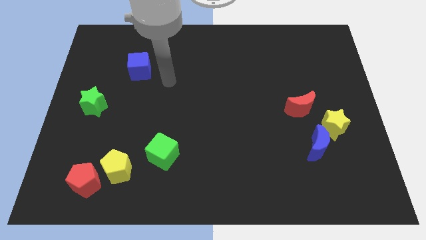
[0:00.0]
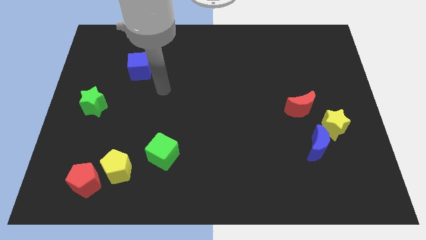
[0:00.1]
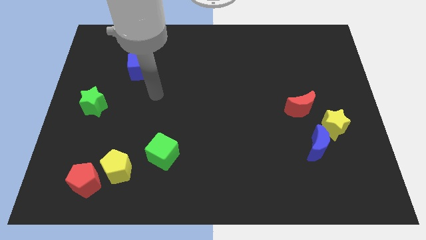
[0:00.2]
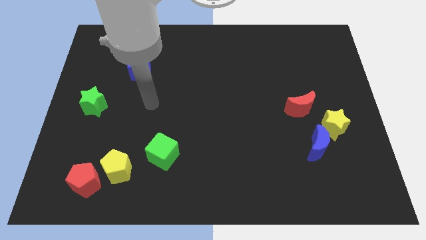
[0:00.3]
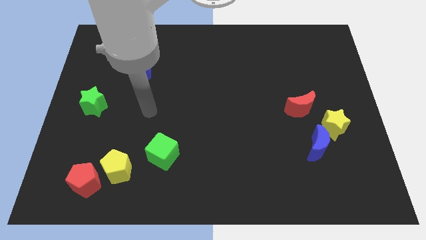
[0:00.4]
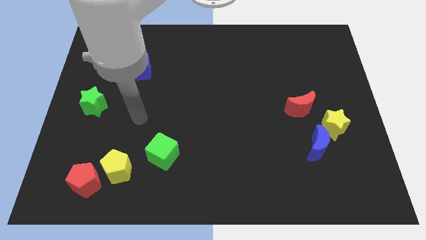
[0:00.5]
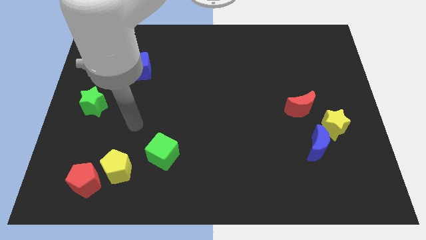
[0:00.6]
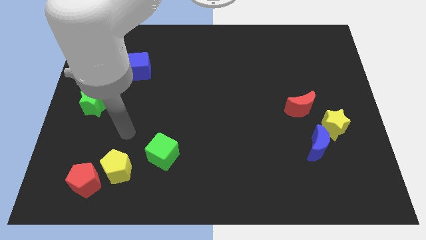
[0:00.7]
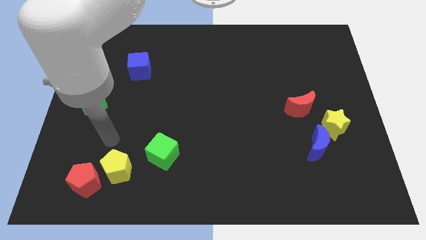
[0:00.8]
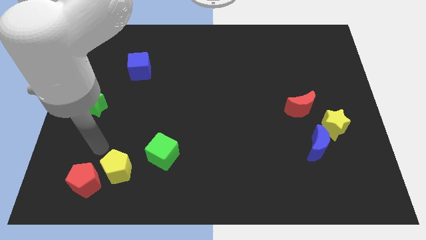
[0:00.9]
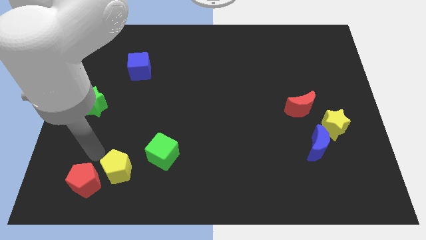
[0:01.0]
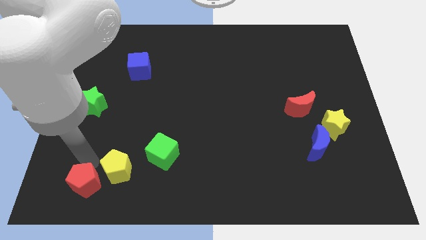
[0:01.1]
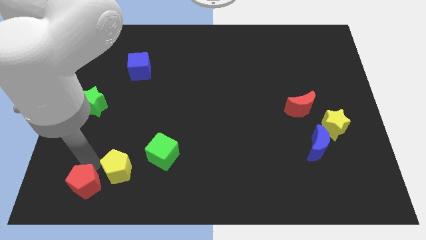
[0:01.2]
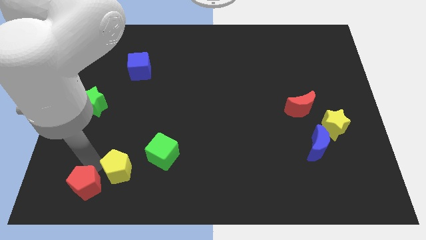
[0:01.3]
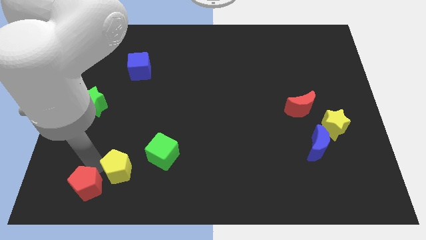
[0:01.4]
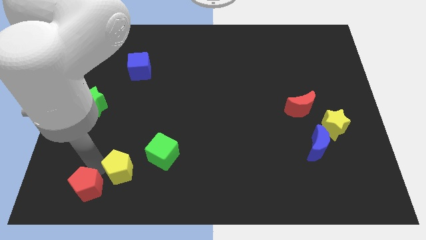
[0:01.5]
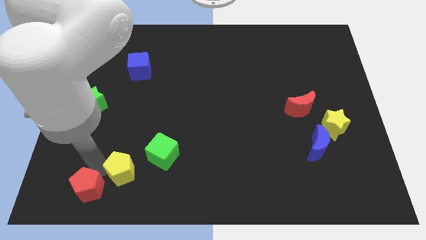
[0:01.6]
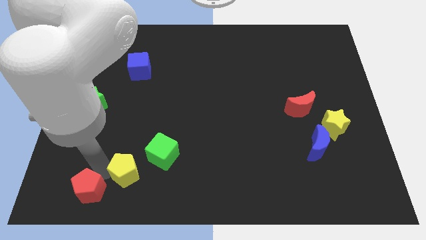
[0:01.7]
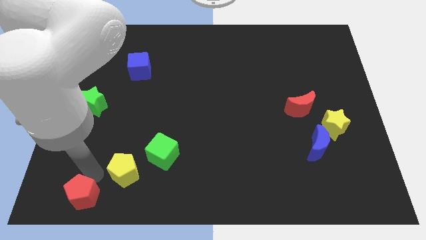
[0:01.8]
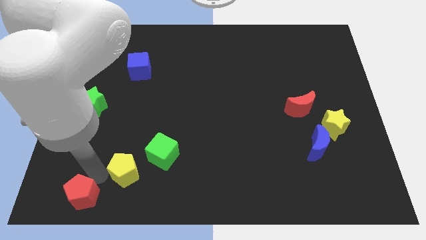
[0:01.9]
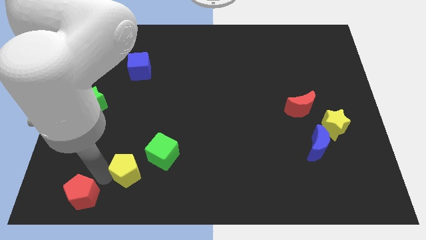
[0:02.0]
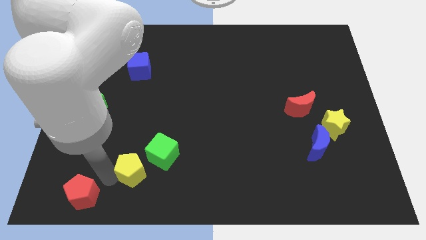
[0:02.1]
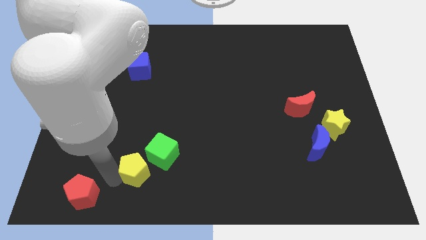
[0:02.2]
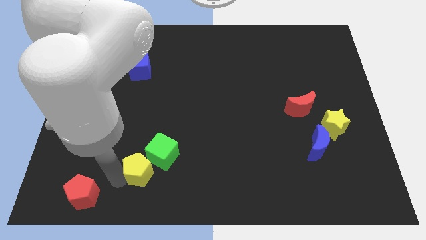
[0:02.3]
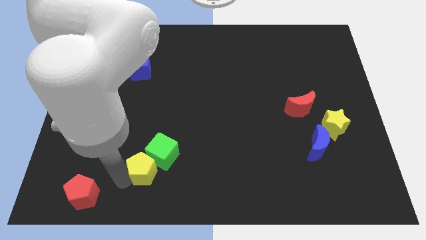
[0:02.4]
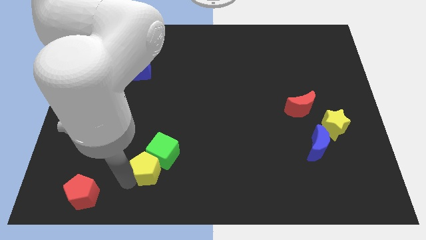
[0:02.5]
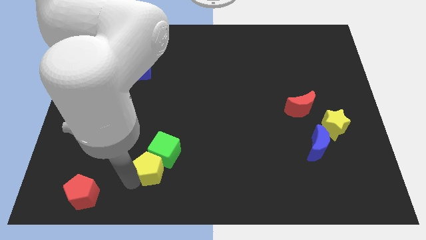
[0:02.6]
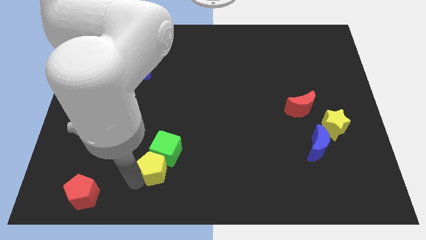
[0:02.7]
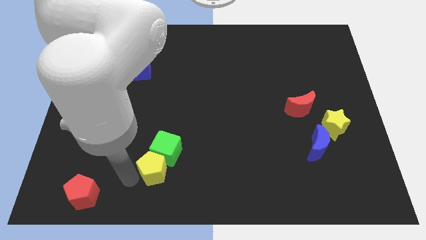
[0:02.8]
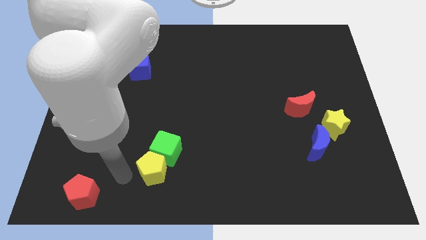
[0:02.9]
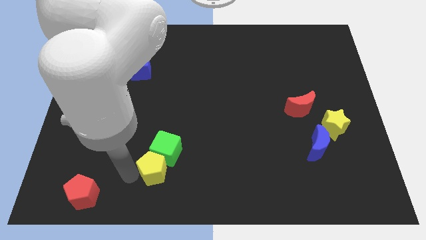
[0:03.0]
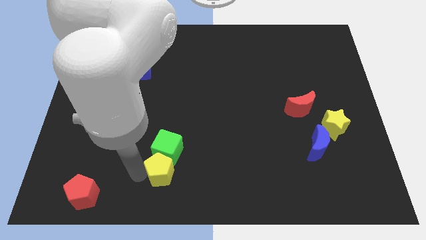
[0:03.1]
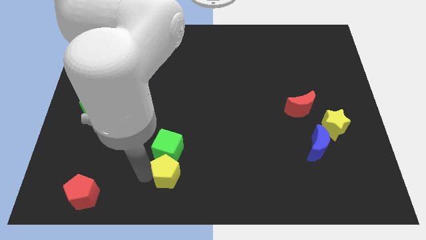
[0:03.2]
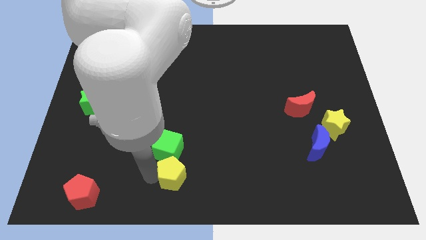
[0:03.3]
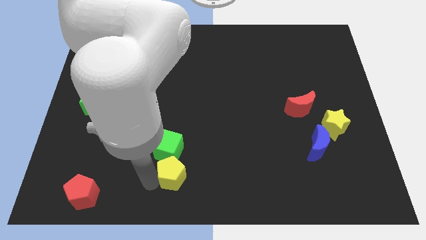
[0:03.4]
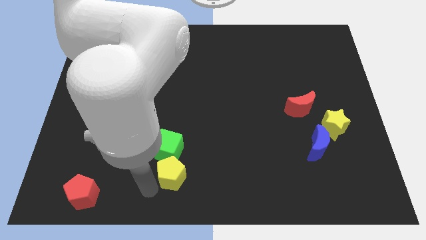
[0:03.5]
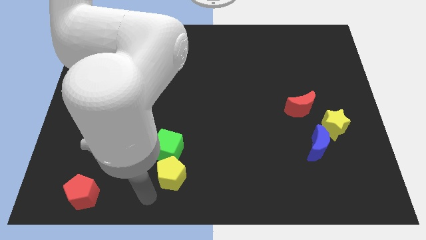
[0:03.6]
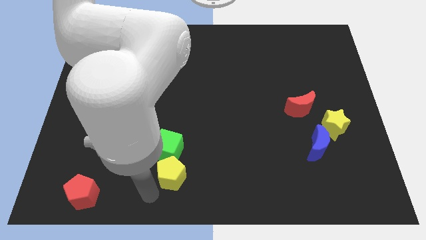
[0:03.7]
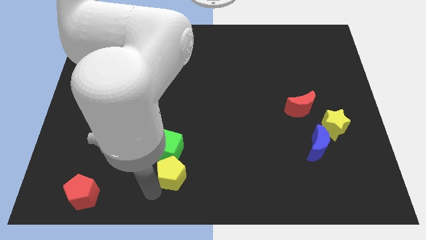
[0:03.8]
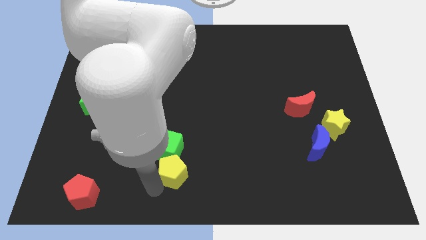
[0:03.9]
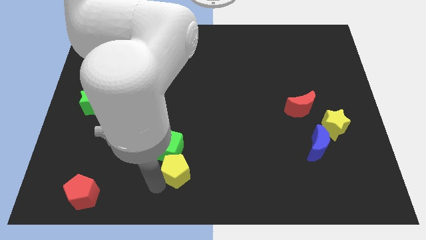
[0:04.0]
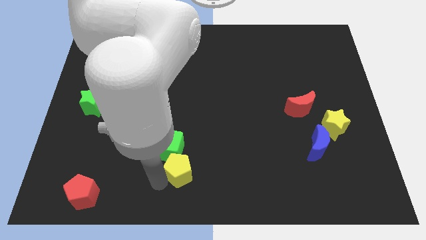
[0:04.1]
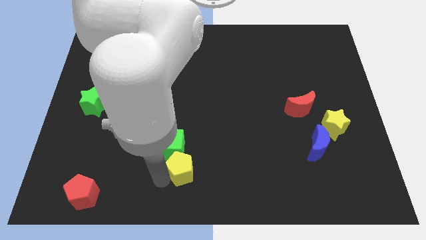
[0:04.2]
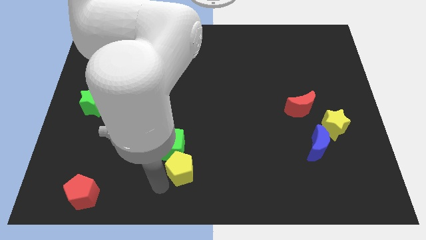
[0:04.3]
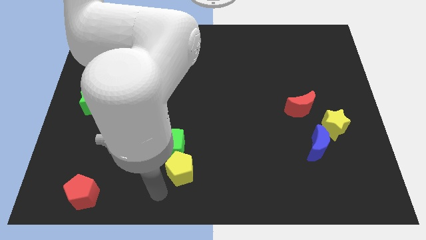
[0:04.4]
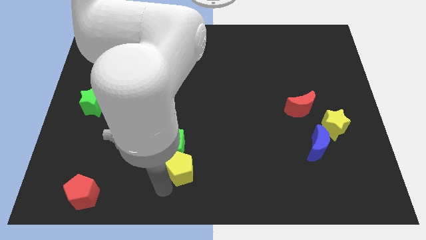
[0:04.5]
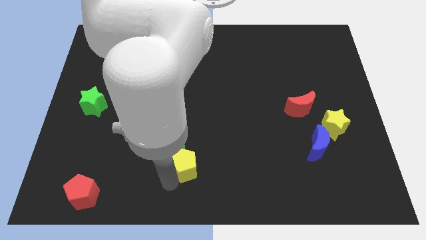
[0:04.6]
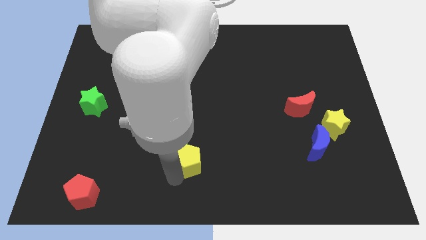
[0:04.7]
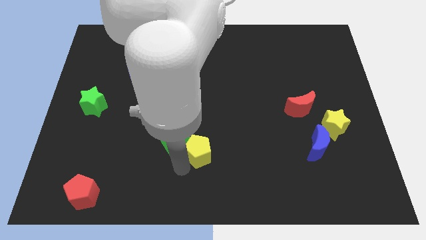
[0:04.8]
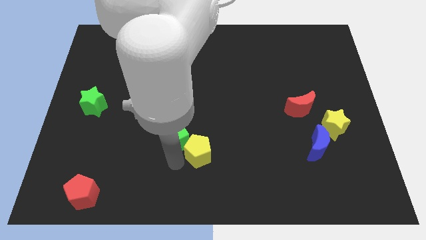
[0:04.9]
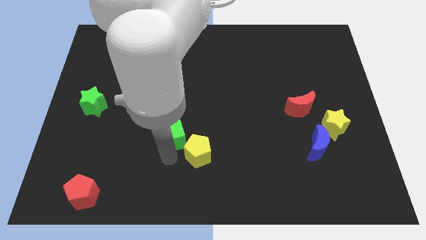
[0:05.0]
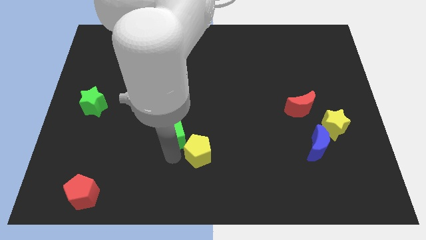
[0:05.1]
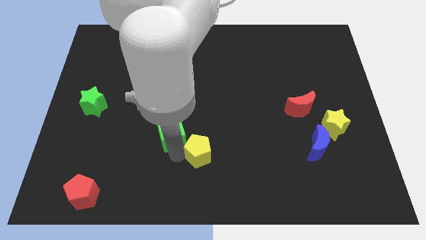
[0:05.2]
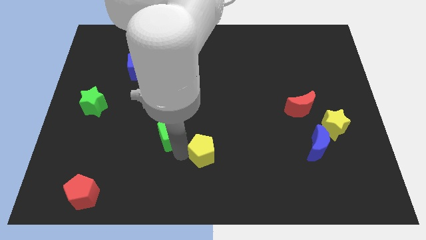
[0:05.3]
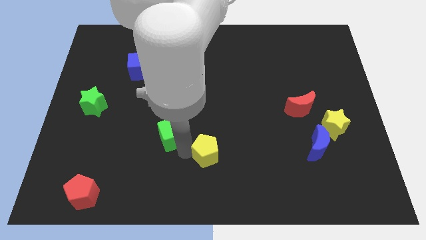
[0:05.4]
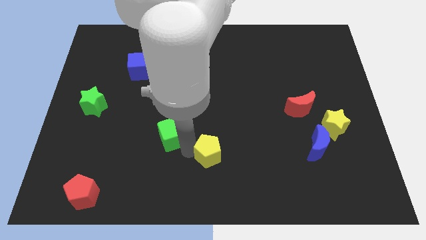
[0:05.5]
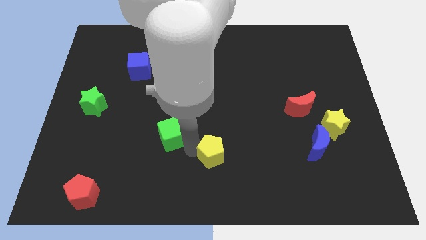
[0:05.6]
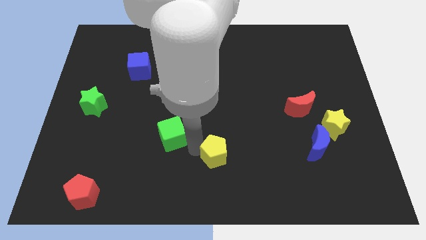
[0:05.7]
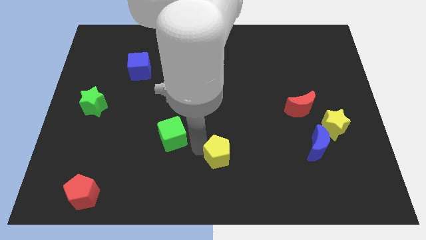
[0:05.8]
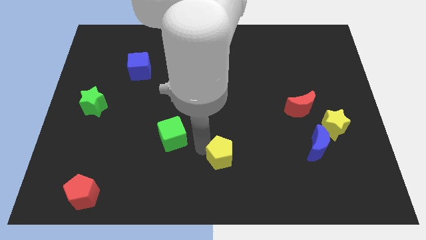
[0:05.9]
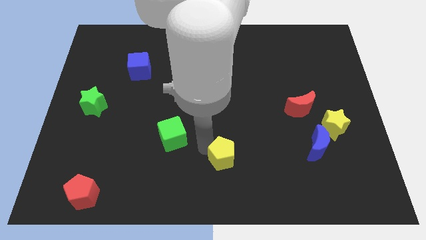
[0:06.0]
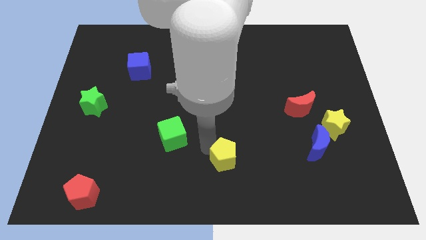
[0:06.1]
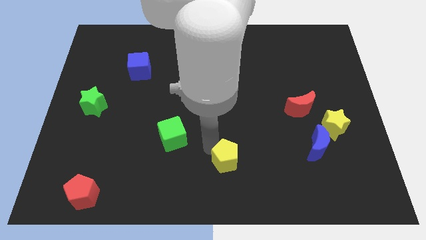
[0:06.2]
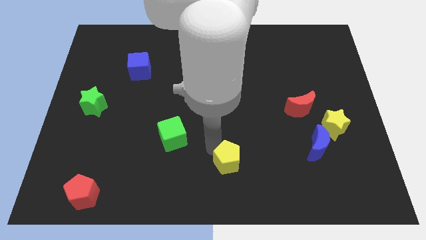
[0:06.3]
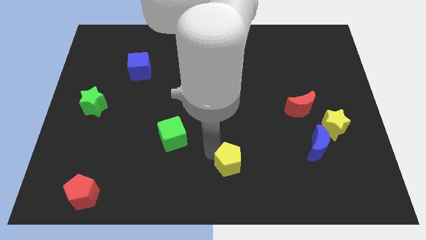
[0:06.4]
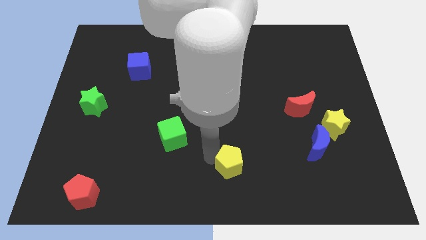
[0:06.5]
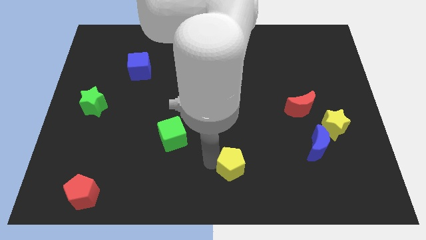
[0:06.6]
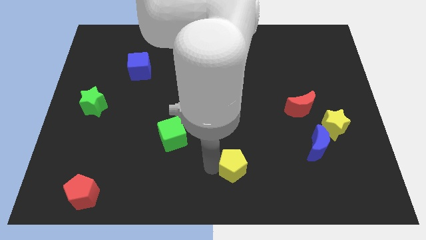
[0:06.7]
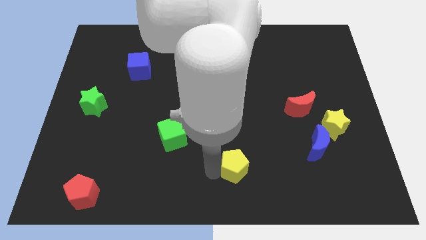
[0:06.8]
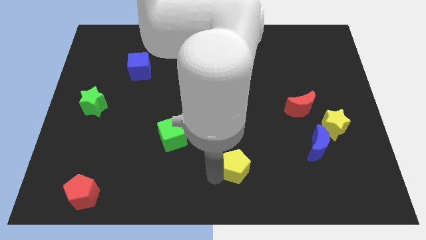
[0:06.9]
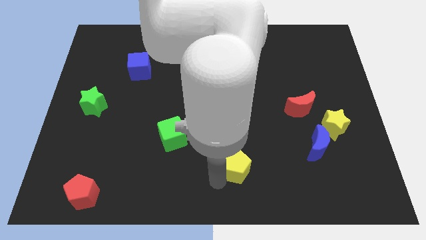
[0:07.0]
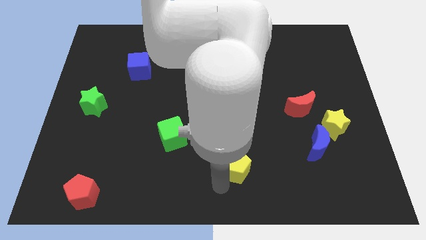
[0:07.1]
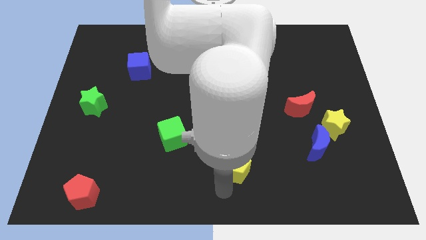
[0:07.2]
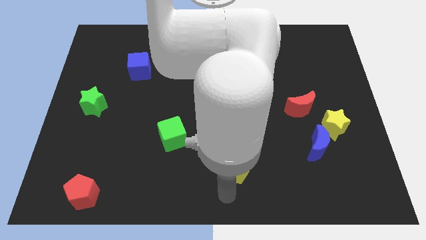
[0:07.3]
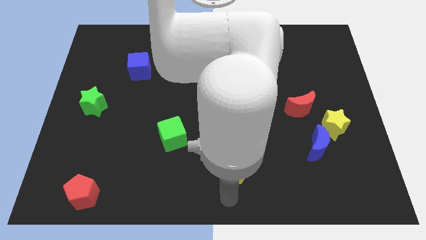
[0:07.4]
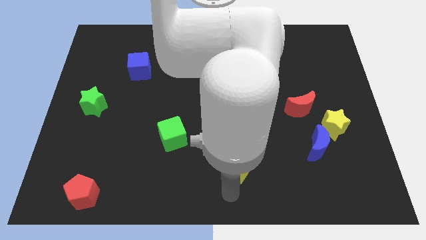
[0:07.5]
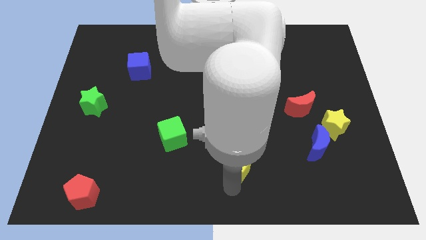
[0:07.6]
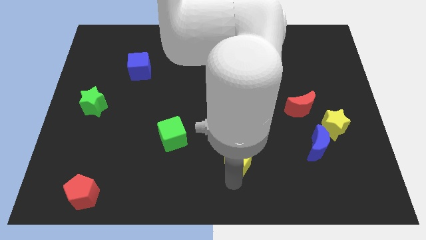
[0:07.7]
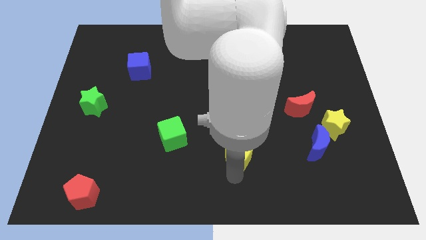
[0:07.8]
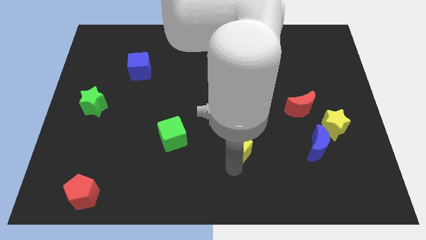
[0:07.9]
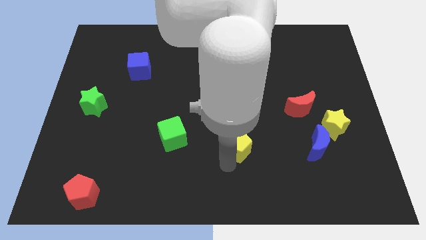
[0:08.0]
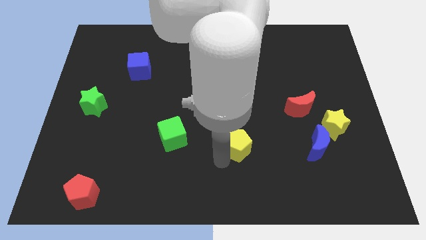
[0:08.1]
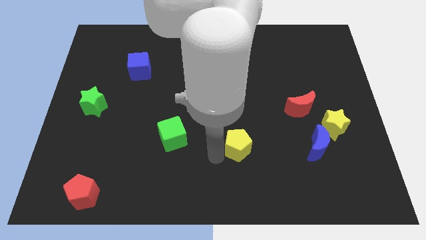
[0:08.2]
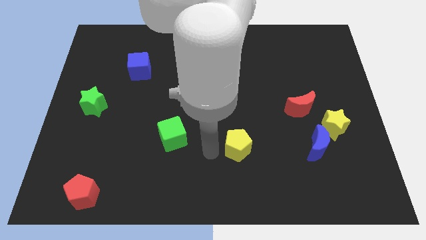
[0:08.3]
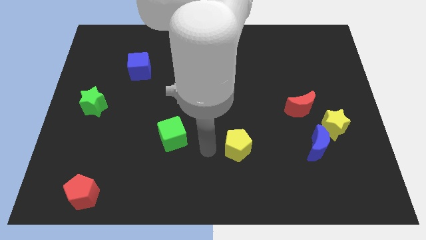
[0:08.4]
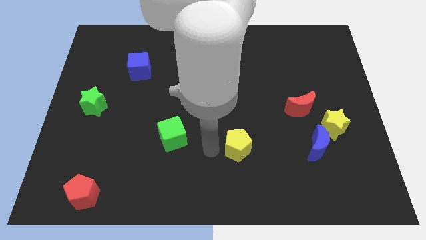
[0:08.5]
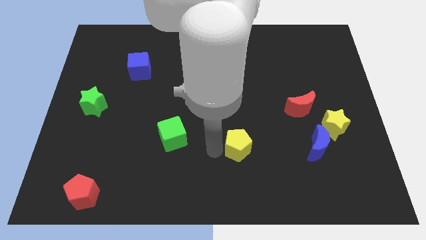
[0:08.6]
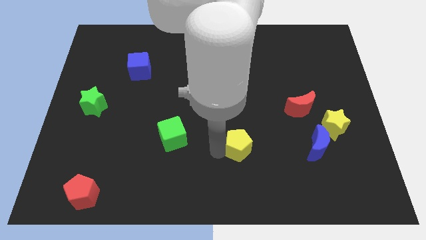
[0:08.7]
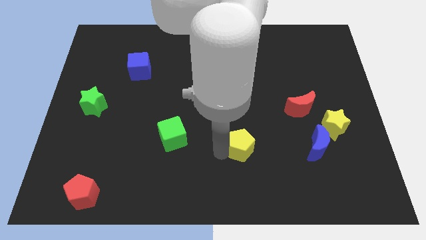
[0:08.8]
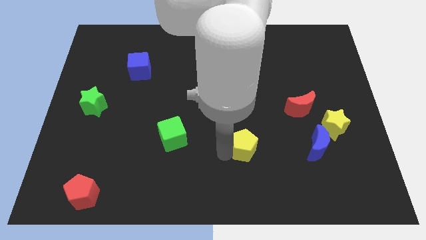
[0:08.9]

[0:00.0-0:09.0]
put the yellow pentagon to the left side of the blue moon
